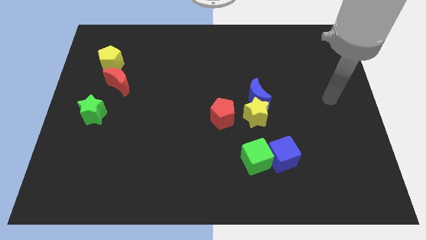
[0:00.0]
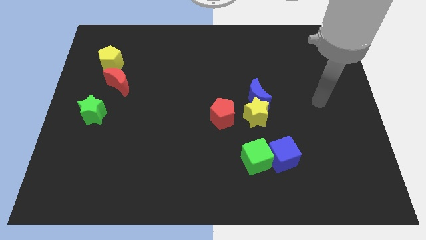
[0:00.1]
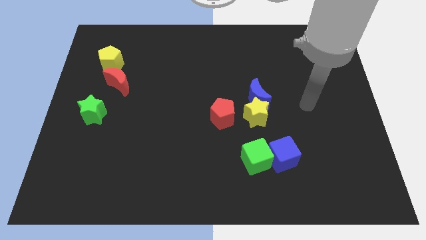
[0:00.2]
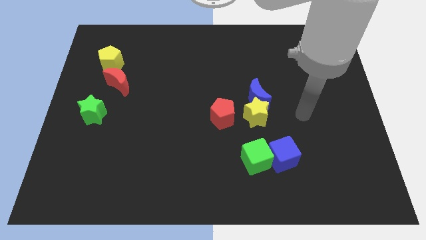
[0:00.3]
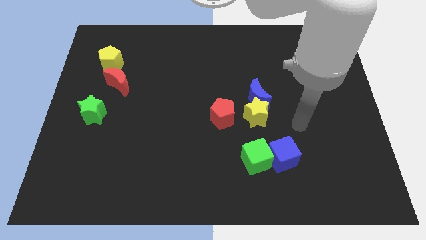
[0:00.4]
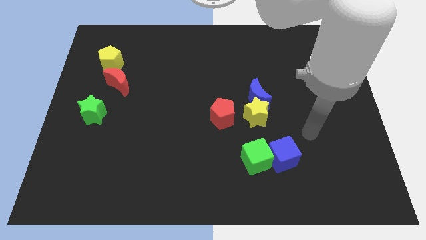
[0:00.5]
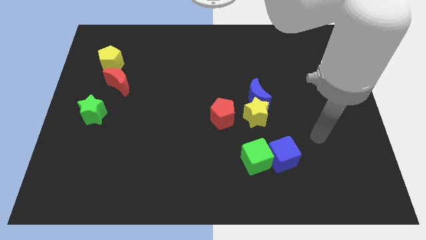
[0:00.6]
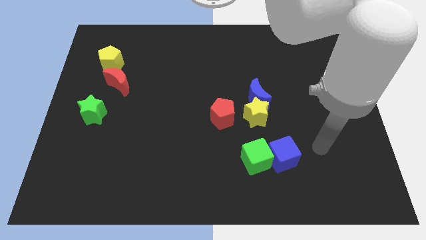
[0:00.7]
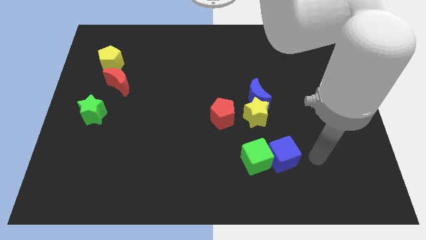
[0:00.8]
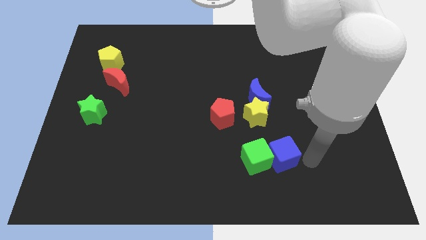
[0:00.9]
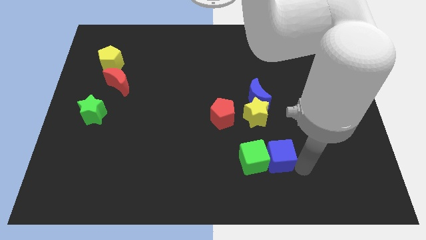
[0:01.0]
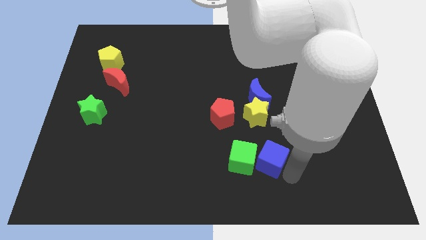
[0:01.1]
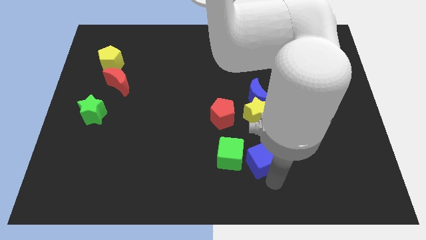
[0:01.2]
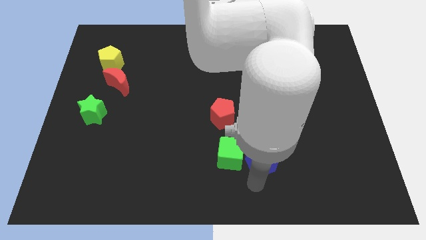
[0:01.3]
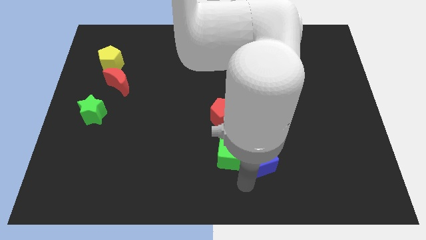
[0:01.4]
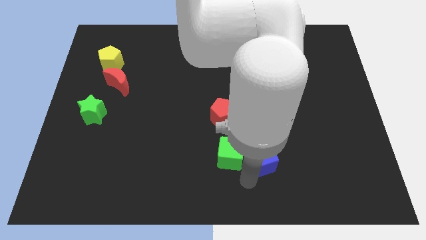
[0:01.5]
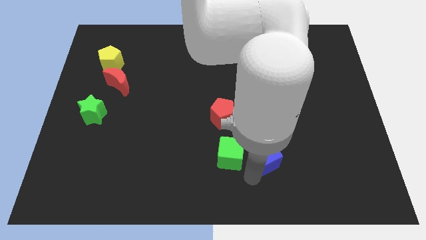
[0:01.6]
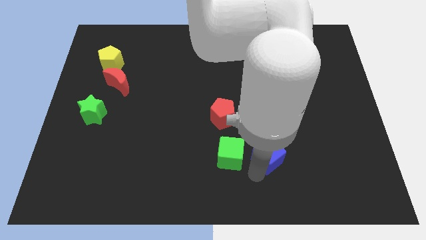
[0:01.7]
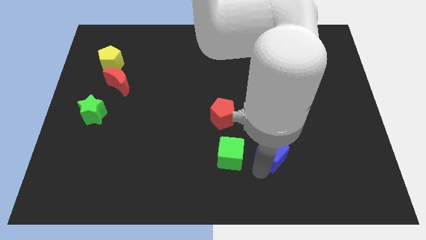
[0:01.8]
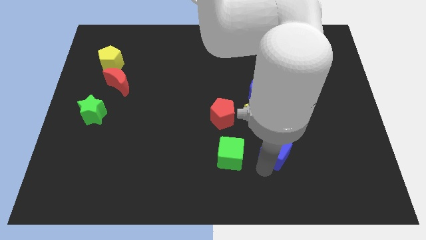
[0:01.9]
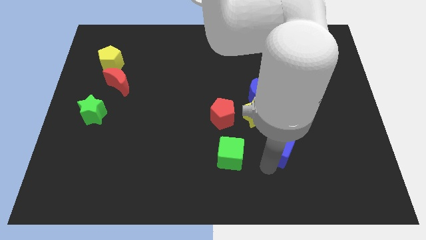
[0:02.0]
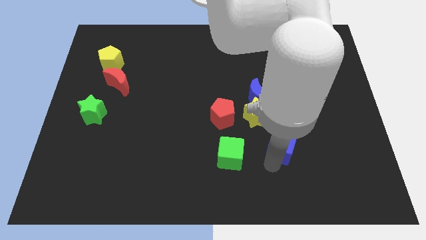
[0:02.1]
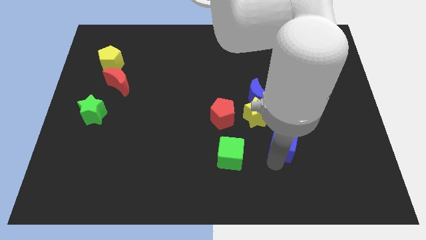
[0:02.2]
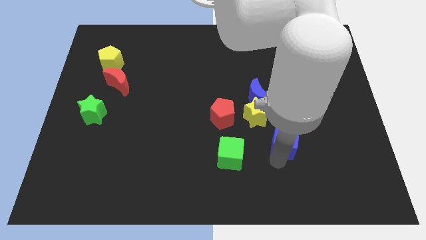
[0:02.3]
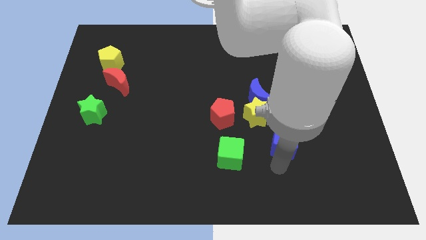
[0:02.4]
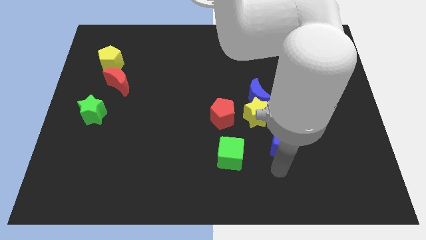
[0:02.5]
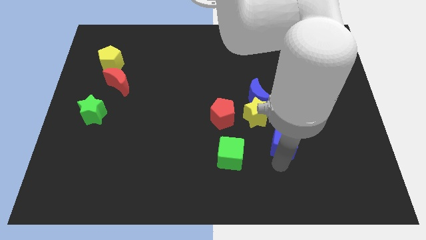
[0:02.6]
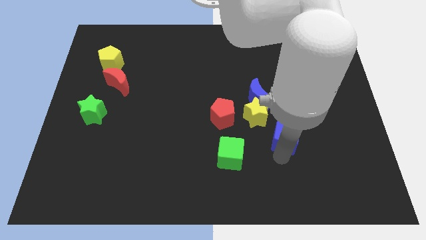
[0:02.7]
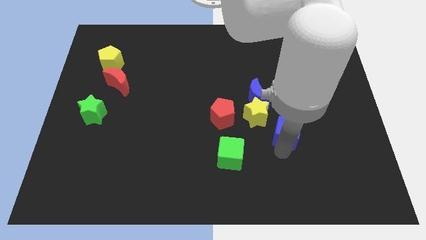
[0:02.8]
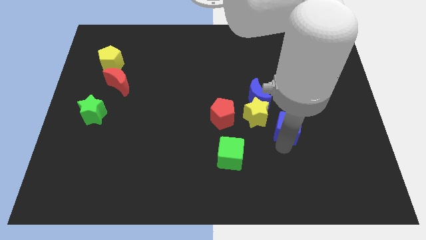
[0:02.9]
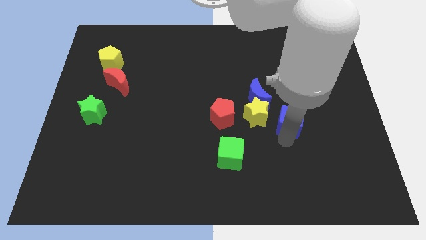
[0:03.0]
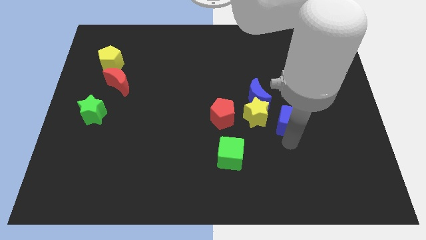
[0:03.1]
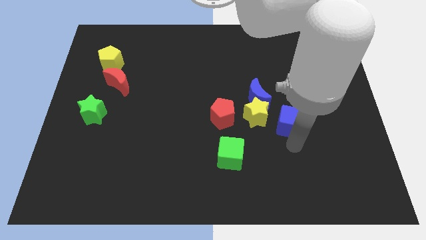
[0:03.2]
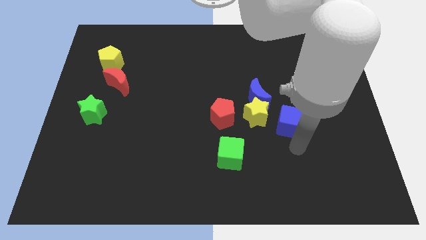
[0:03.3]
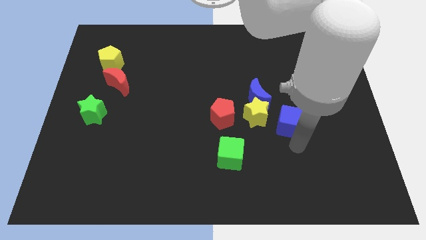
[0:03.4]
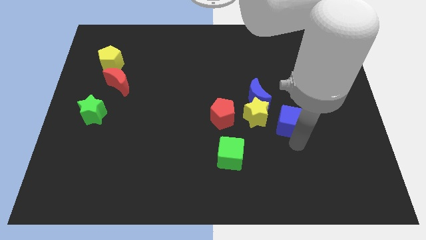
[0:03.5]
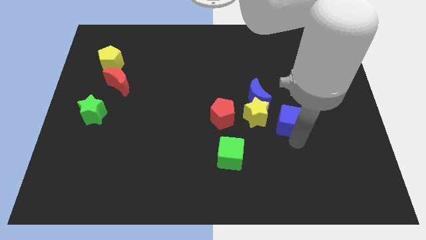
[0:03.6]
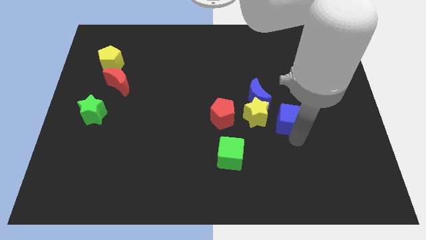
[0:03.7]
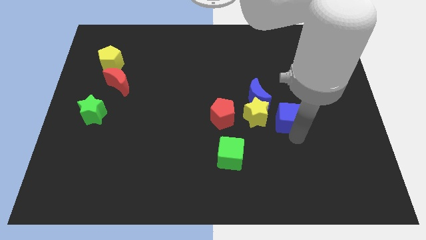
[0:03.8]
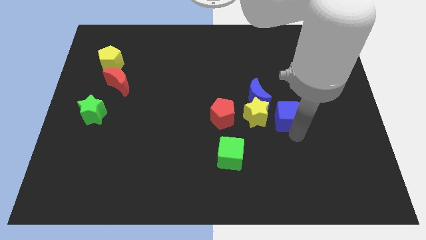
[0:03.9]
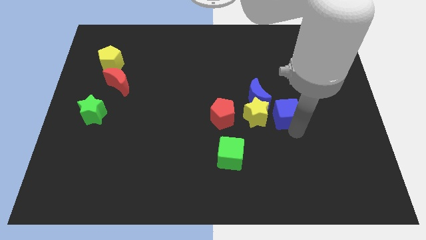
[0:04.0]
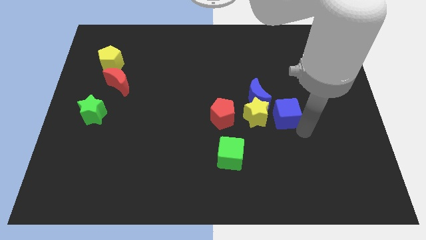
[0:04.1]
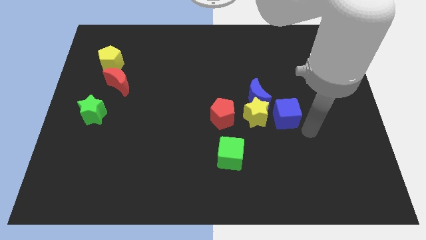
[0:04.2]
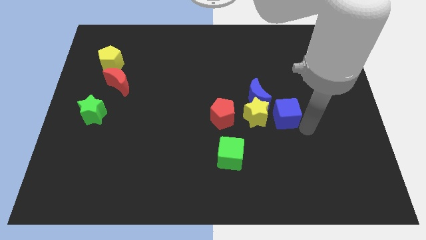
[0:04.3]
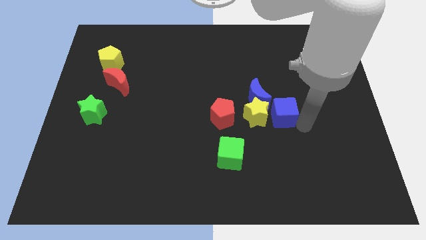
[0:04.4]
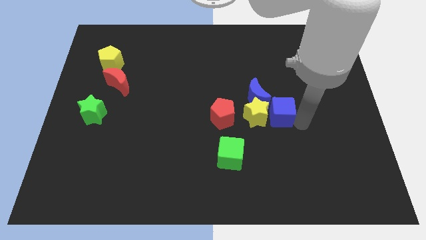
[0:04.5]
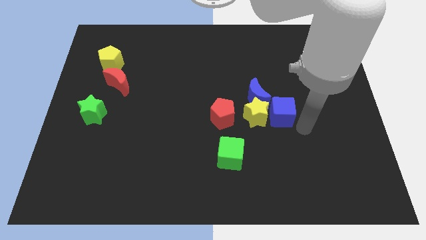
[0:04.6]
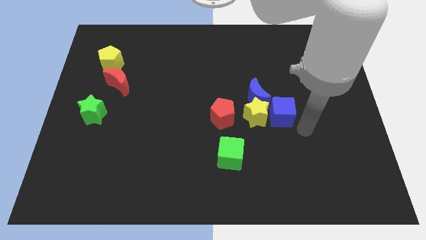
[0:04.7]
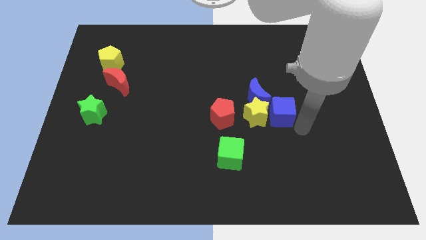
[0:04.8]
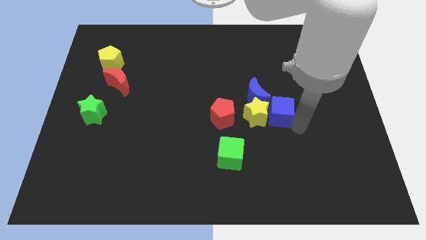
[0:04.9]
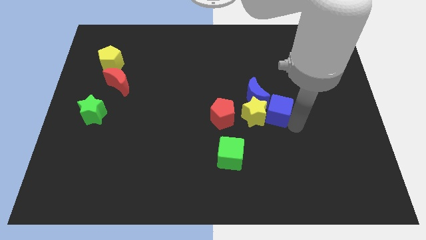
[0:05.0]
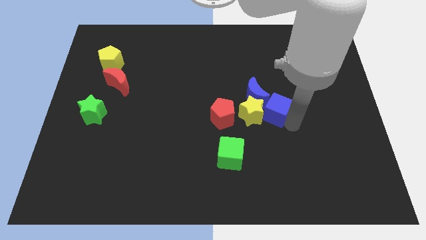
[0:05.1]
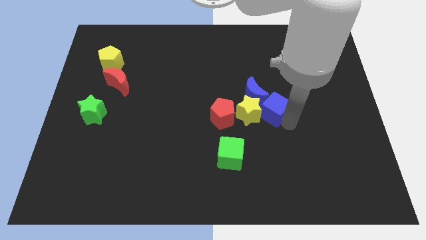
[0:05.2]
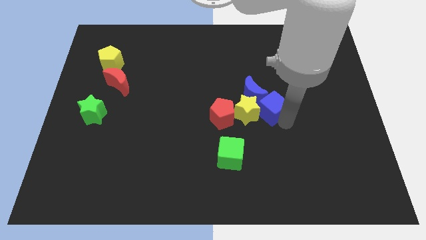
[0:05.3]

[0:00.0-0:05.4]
slide the blue cube towards the blue moon

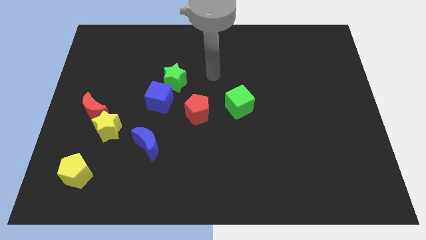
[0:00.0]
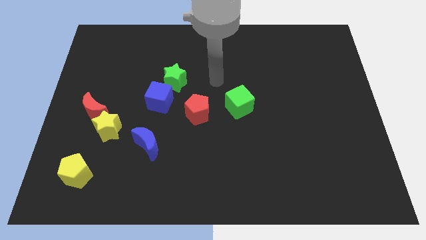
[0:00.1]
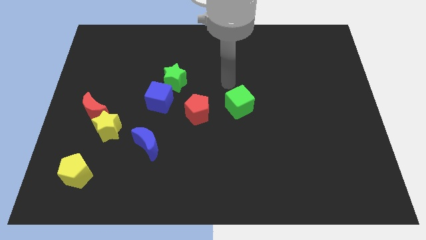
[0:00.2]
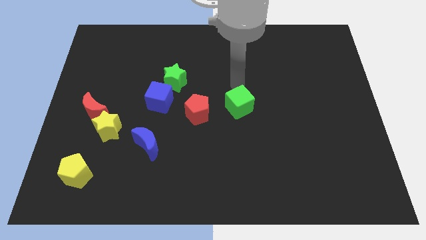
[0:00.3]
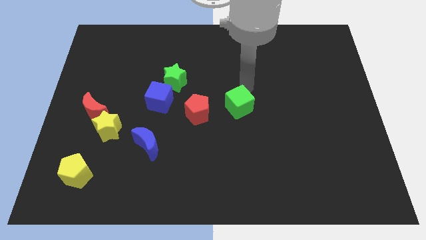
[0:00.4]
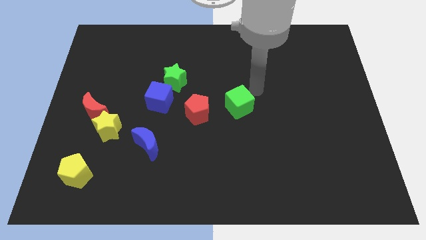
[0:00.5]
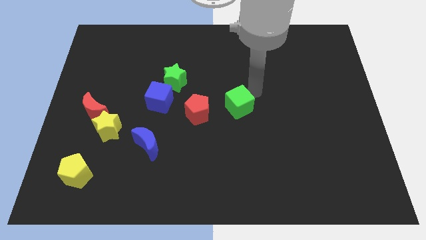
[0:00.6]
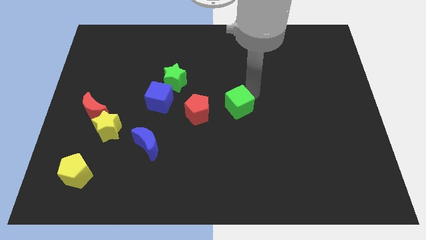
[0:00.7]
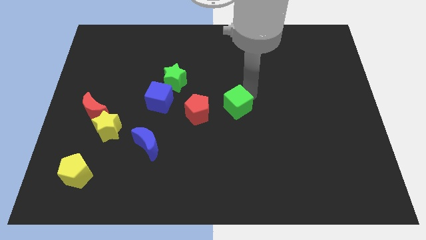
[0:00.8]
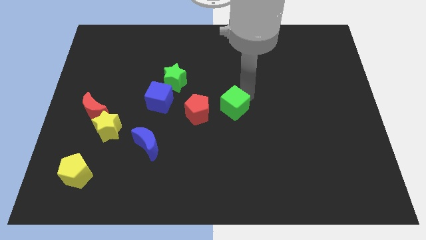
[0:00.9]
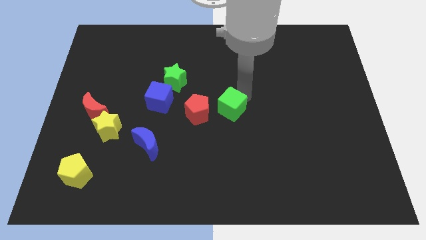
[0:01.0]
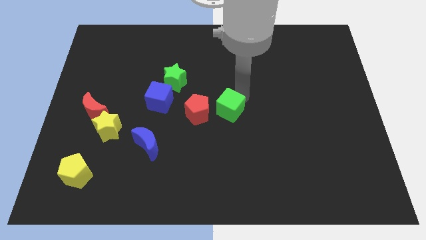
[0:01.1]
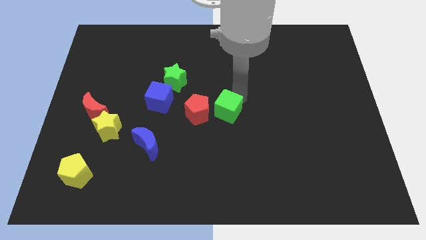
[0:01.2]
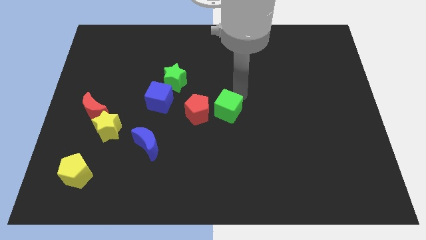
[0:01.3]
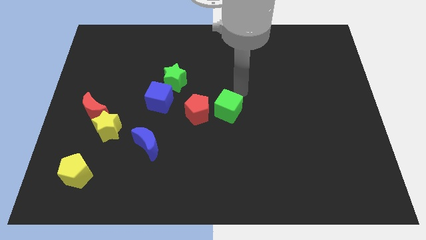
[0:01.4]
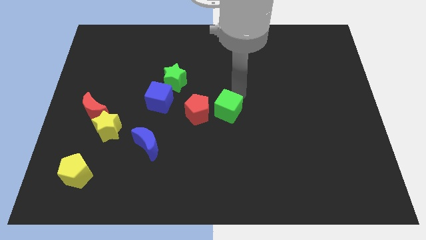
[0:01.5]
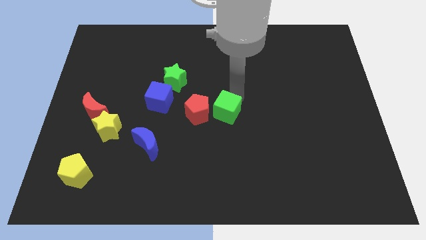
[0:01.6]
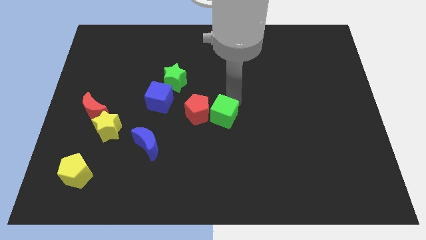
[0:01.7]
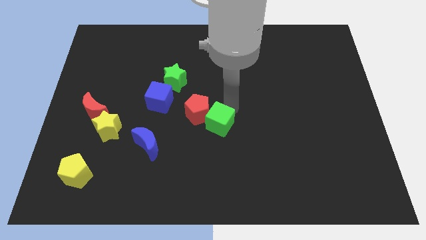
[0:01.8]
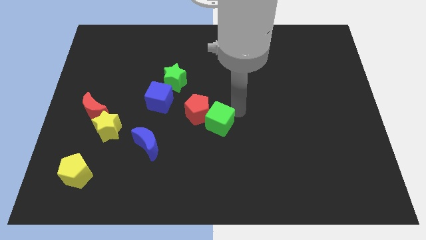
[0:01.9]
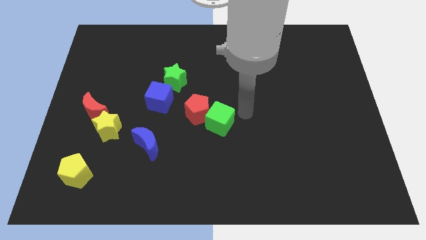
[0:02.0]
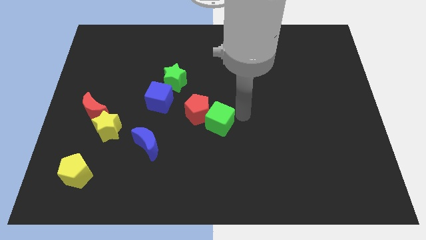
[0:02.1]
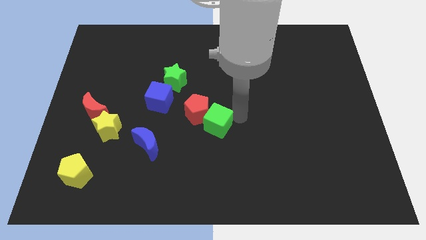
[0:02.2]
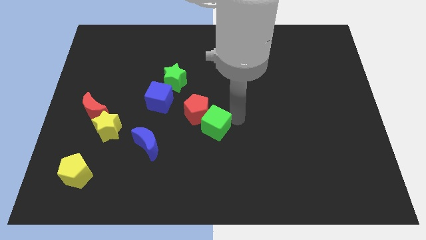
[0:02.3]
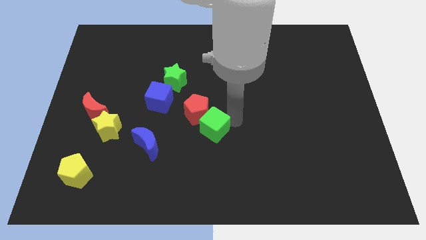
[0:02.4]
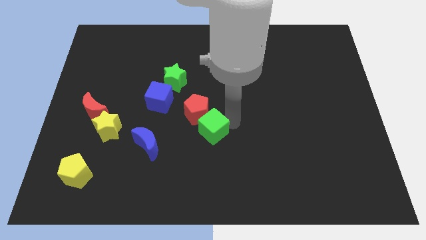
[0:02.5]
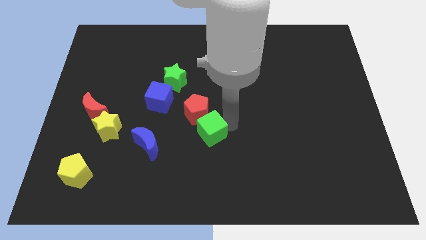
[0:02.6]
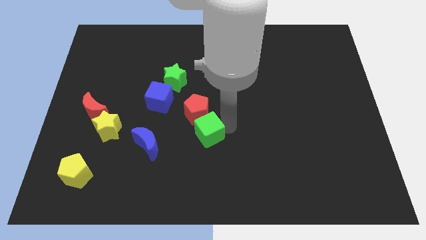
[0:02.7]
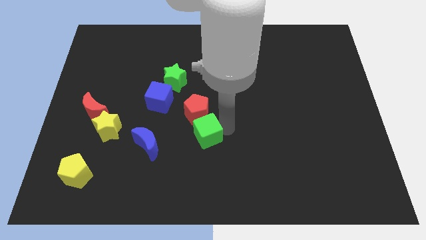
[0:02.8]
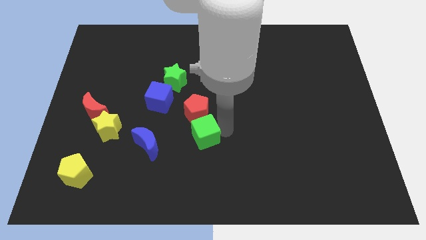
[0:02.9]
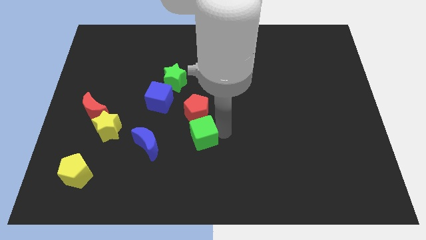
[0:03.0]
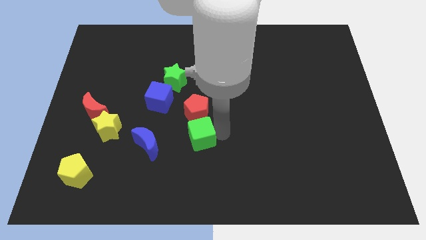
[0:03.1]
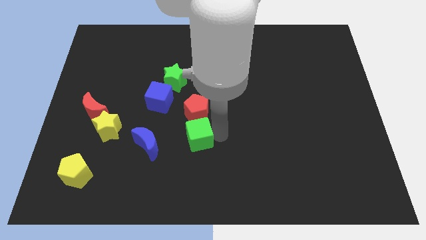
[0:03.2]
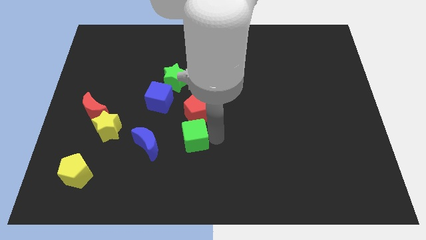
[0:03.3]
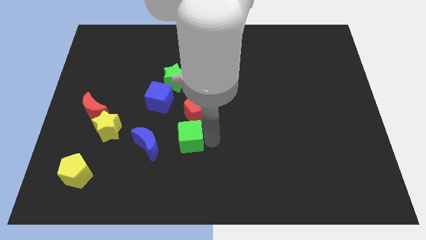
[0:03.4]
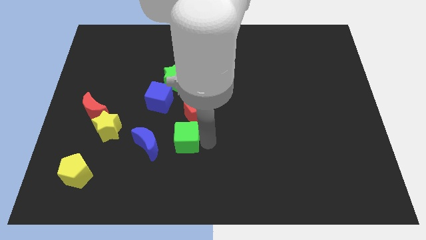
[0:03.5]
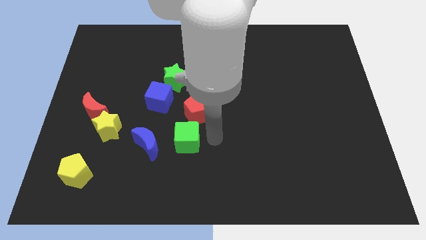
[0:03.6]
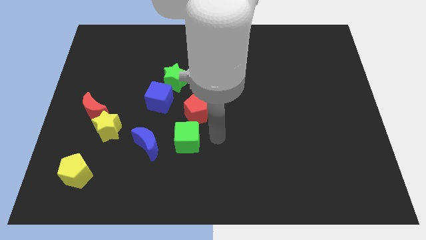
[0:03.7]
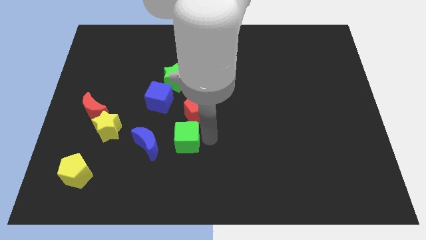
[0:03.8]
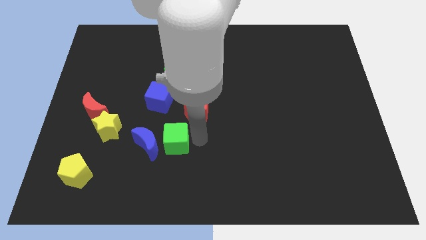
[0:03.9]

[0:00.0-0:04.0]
put the green cube to the blue moon
